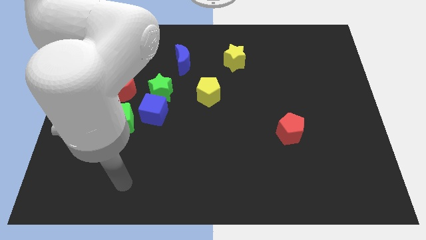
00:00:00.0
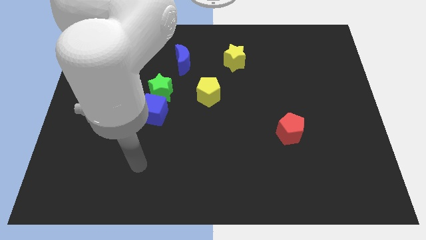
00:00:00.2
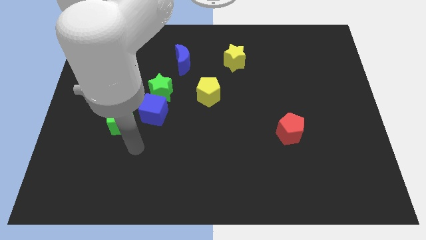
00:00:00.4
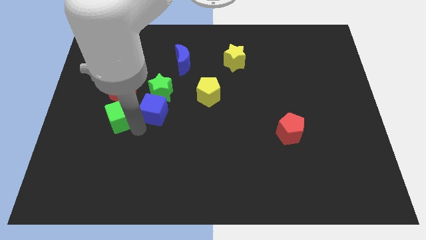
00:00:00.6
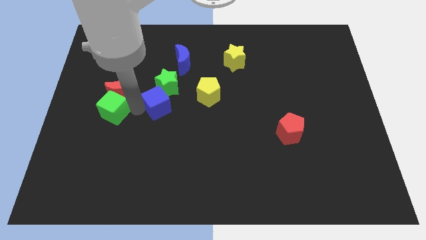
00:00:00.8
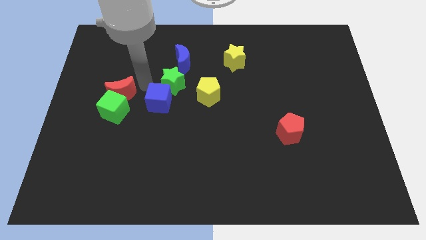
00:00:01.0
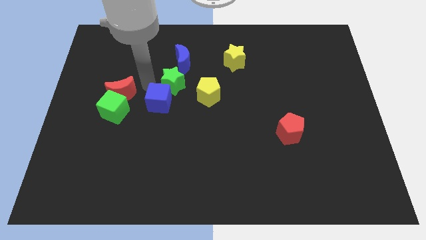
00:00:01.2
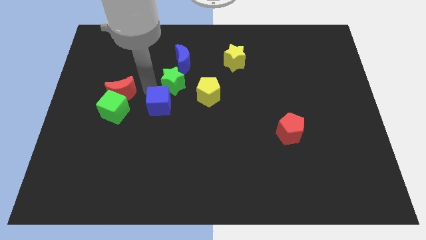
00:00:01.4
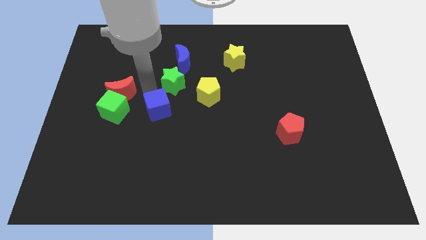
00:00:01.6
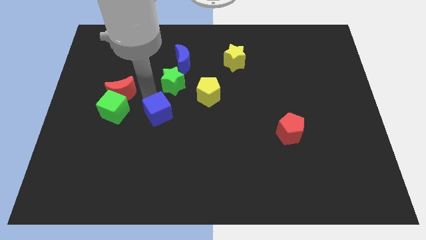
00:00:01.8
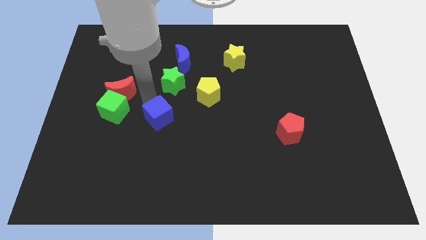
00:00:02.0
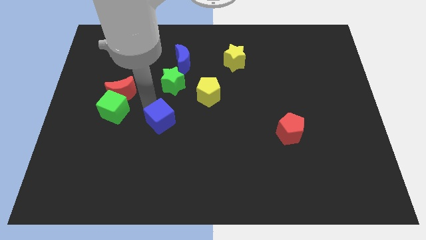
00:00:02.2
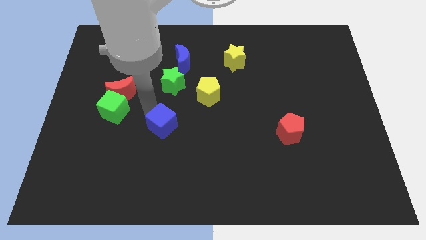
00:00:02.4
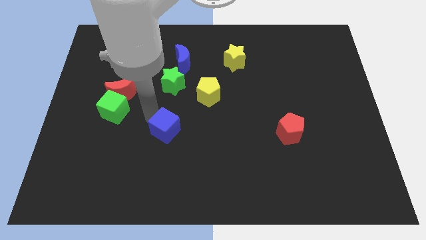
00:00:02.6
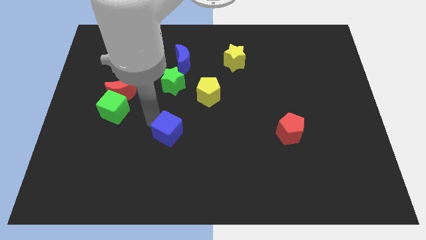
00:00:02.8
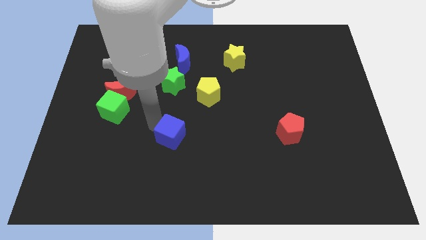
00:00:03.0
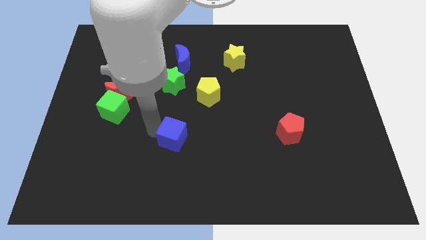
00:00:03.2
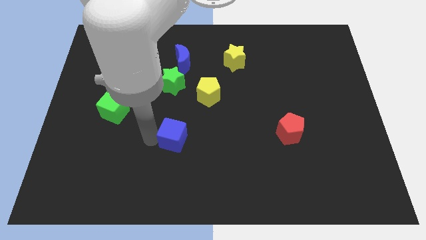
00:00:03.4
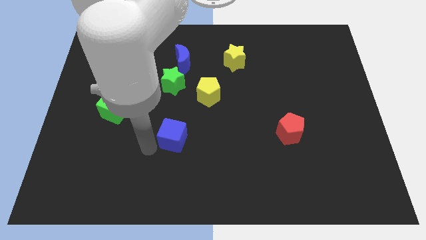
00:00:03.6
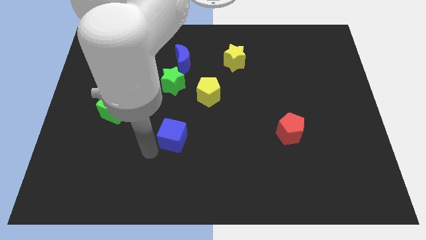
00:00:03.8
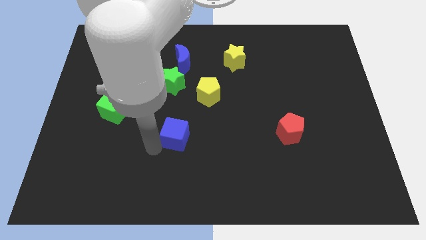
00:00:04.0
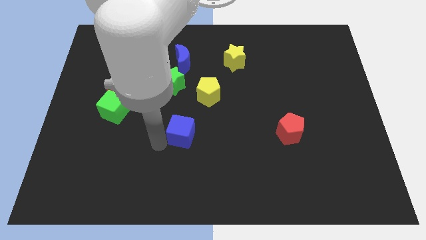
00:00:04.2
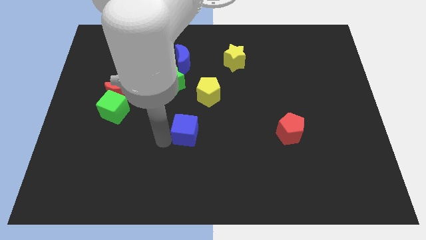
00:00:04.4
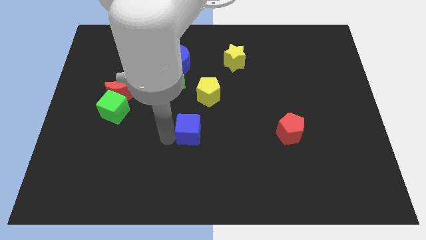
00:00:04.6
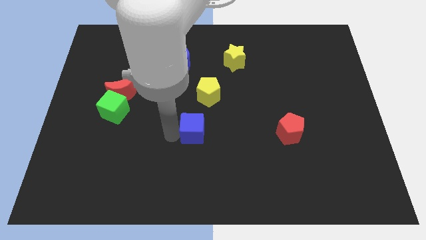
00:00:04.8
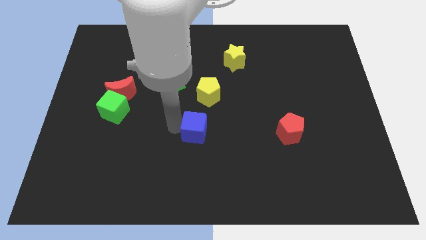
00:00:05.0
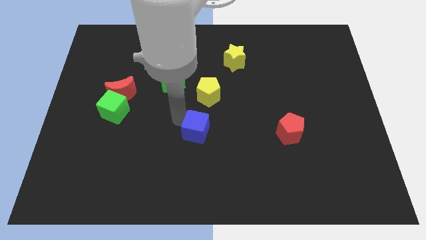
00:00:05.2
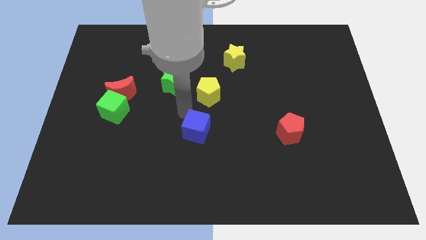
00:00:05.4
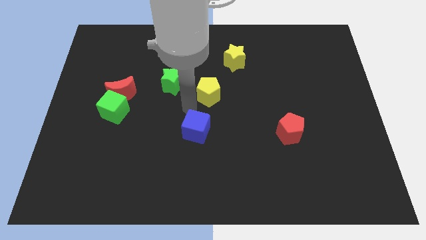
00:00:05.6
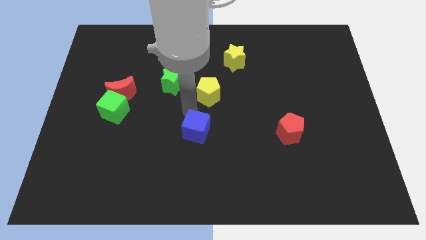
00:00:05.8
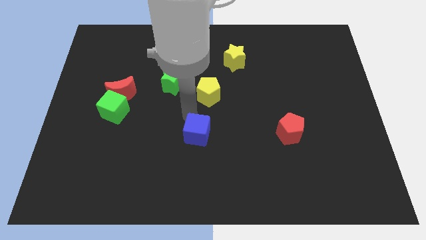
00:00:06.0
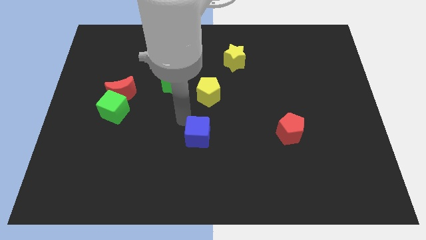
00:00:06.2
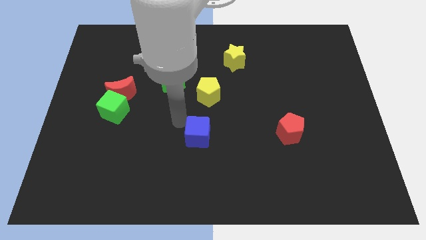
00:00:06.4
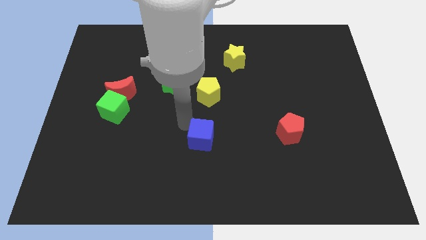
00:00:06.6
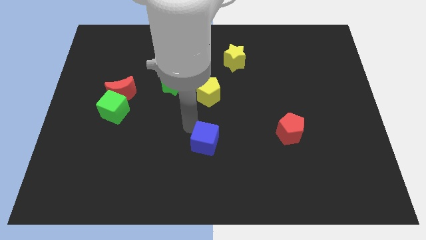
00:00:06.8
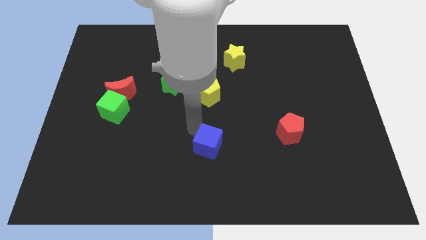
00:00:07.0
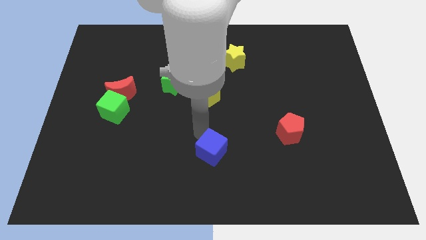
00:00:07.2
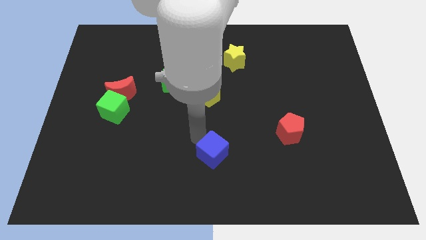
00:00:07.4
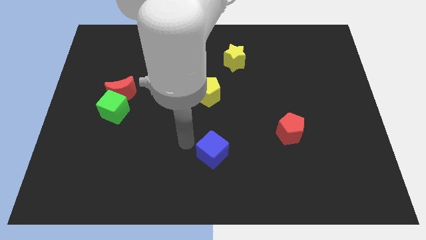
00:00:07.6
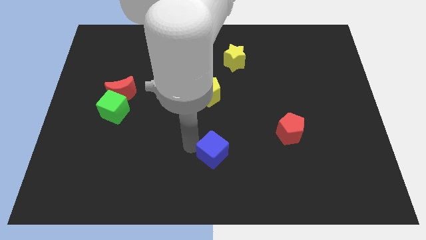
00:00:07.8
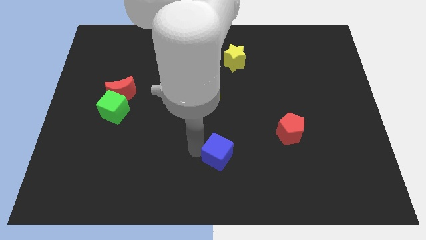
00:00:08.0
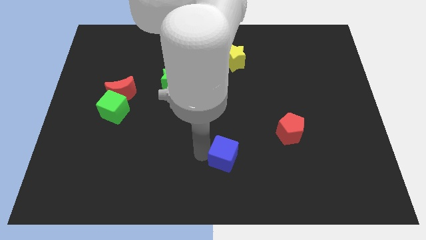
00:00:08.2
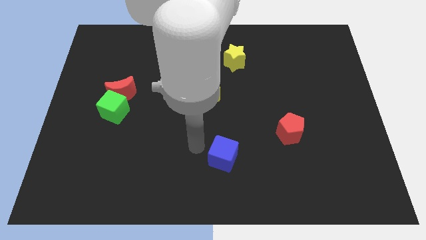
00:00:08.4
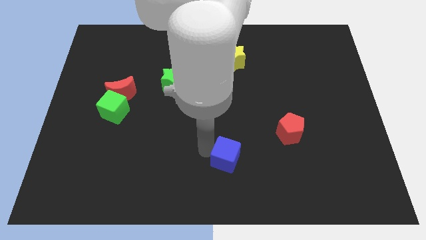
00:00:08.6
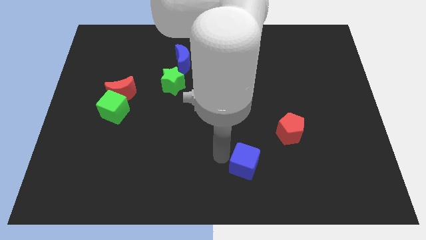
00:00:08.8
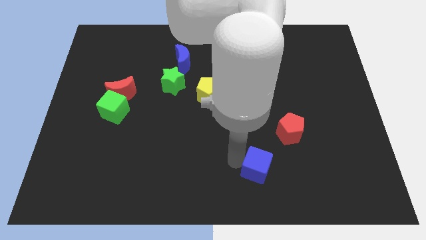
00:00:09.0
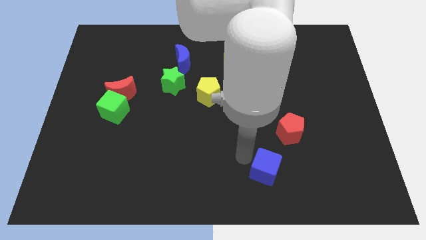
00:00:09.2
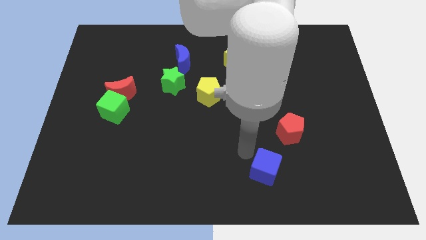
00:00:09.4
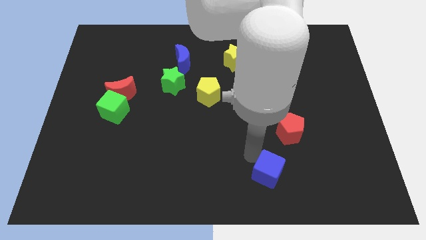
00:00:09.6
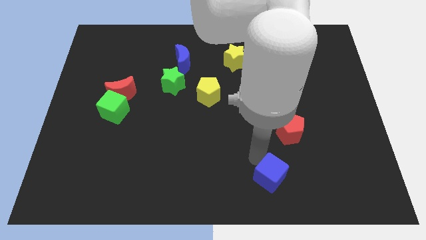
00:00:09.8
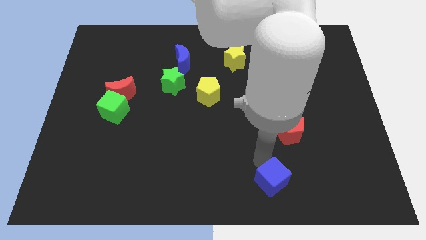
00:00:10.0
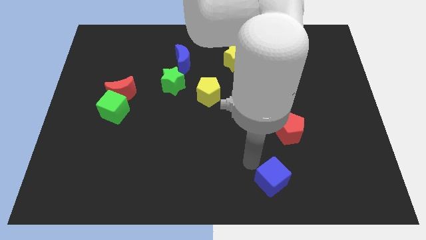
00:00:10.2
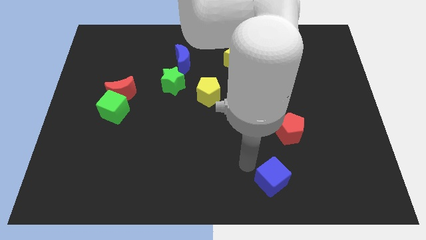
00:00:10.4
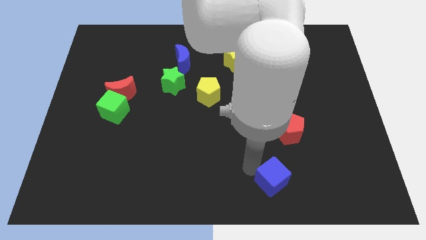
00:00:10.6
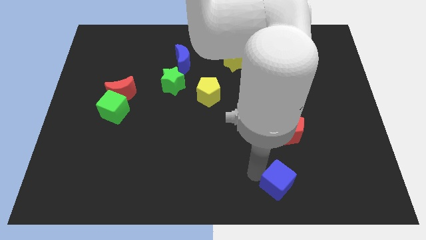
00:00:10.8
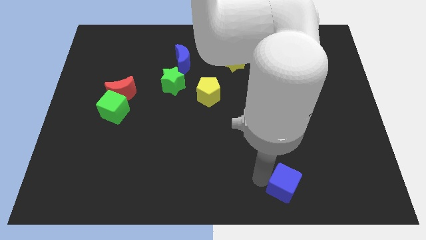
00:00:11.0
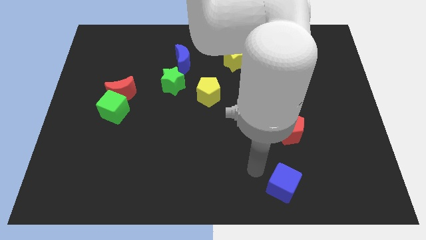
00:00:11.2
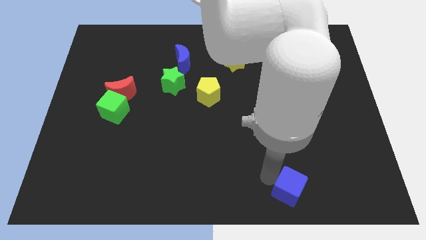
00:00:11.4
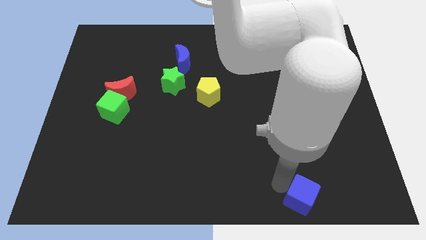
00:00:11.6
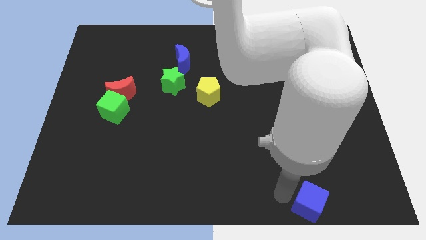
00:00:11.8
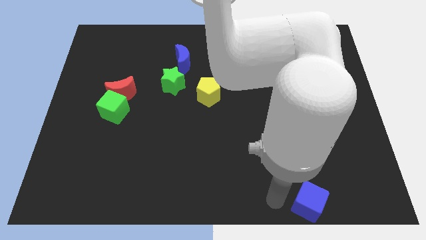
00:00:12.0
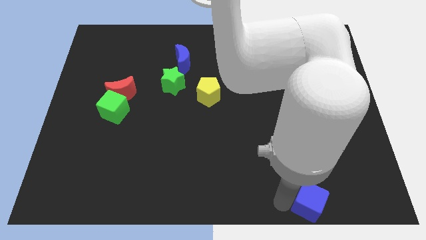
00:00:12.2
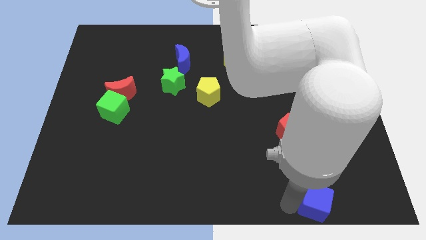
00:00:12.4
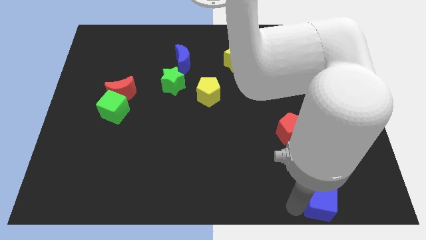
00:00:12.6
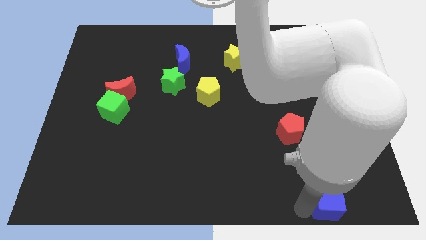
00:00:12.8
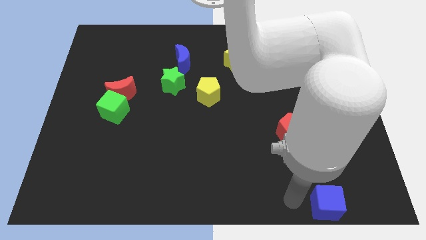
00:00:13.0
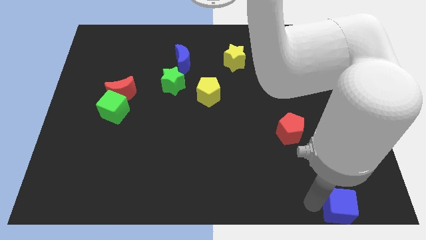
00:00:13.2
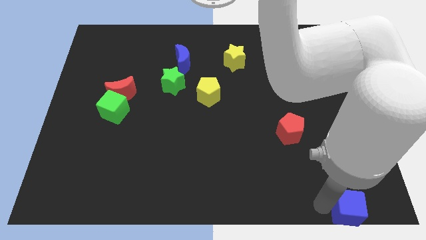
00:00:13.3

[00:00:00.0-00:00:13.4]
move the blue cube to the bottom right of the board
